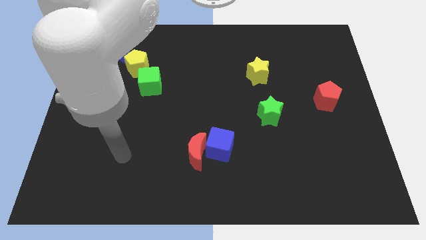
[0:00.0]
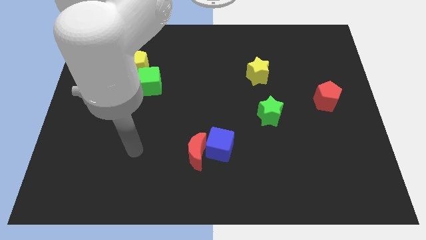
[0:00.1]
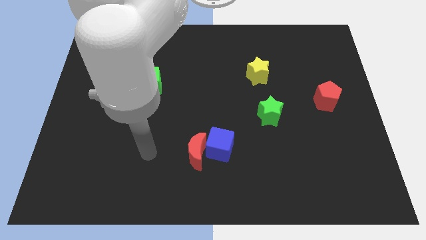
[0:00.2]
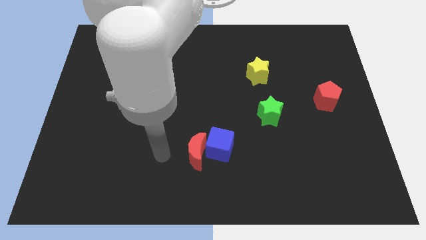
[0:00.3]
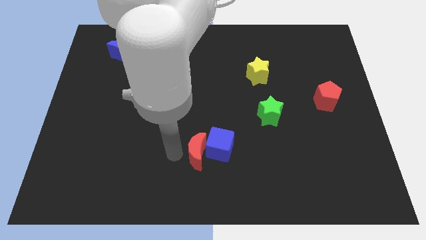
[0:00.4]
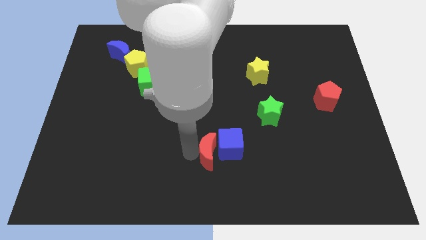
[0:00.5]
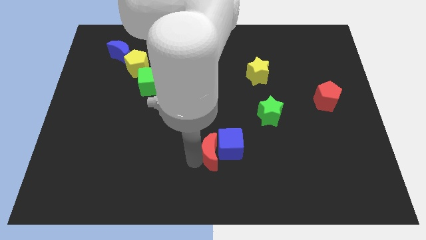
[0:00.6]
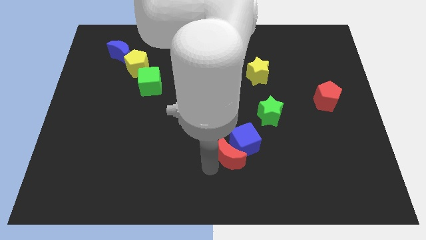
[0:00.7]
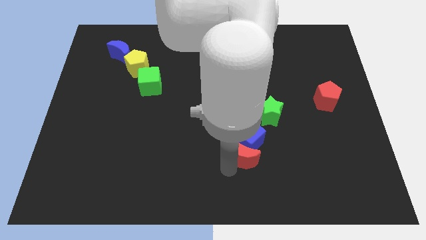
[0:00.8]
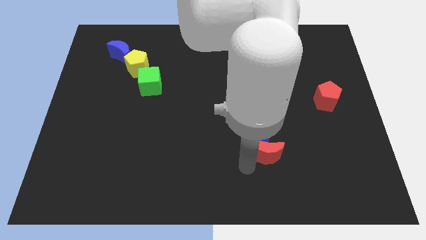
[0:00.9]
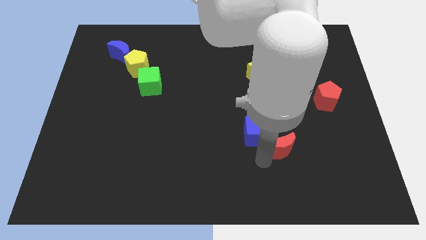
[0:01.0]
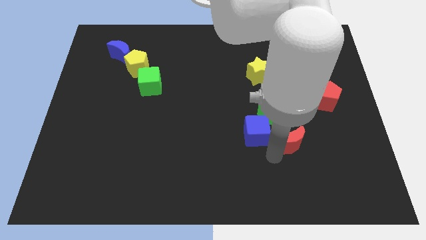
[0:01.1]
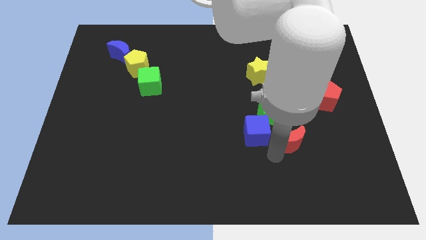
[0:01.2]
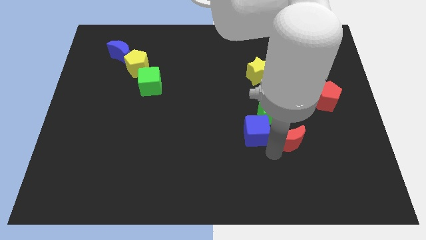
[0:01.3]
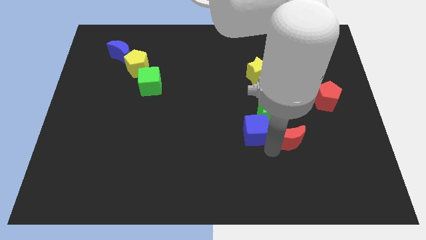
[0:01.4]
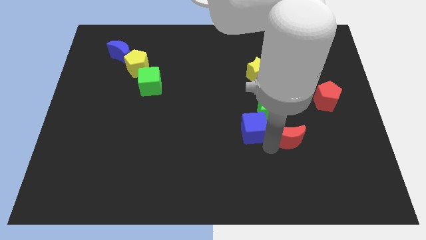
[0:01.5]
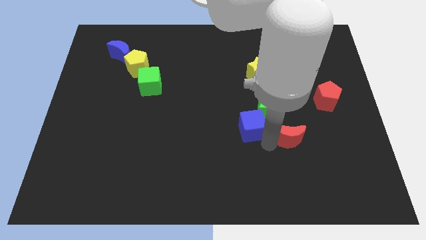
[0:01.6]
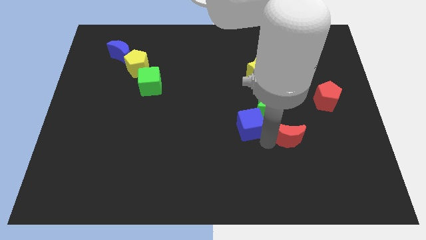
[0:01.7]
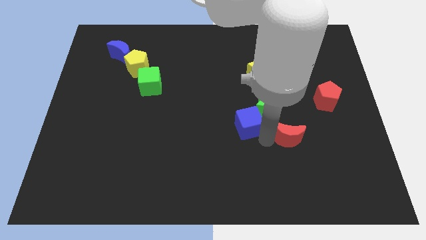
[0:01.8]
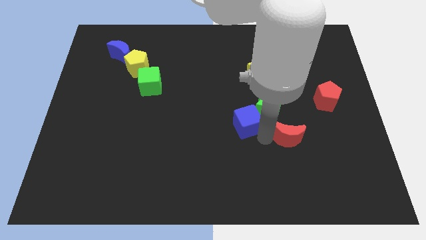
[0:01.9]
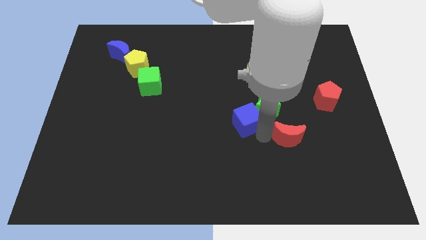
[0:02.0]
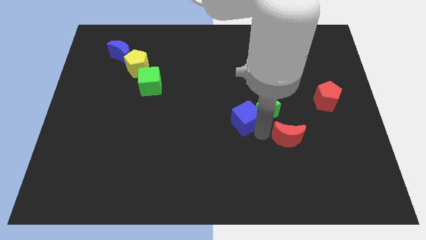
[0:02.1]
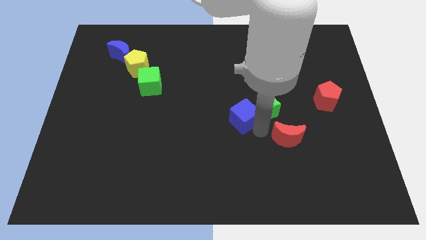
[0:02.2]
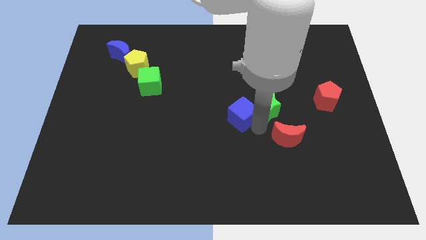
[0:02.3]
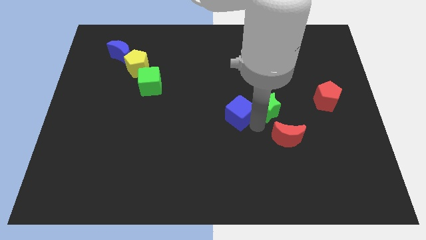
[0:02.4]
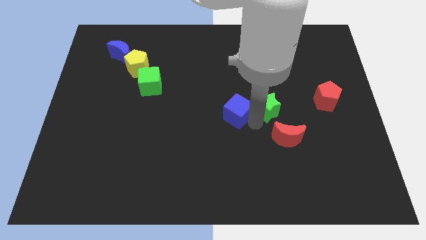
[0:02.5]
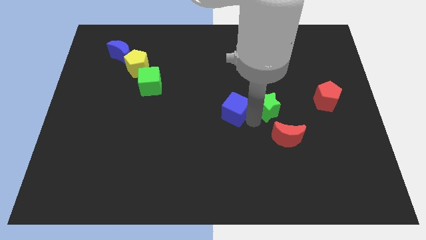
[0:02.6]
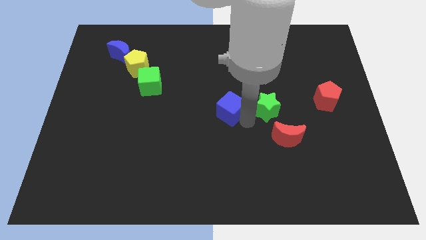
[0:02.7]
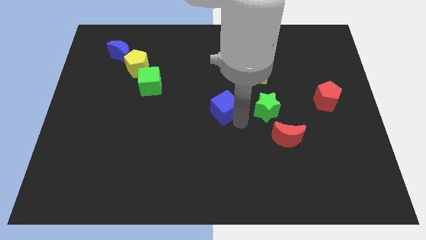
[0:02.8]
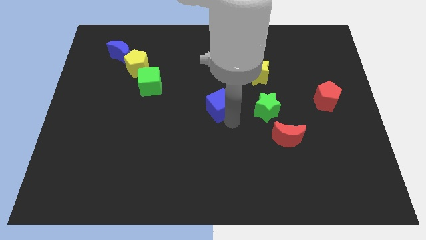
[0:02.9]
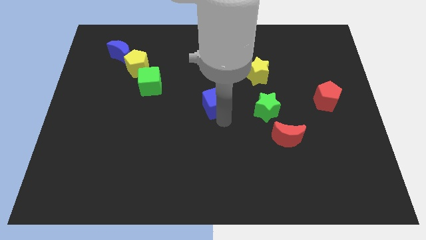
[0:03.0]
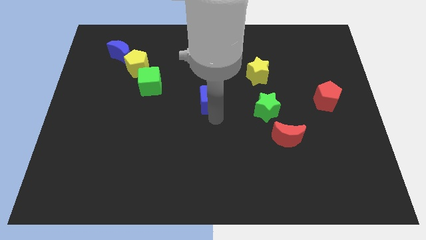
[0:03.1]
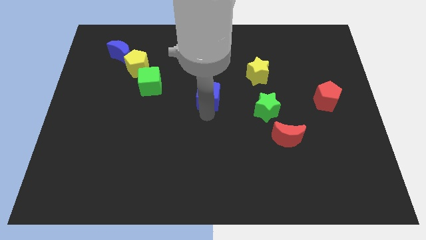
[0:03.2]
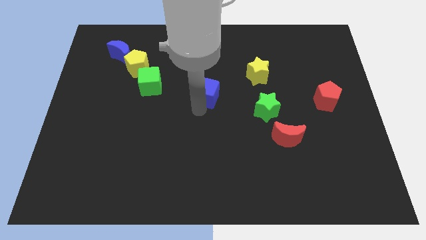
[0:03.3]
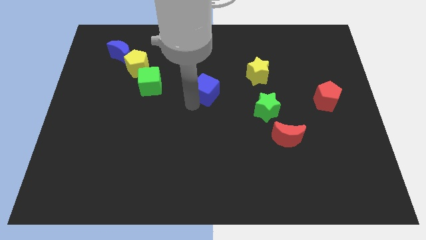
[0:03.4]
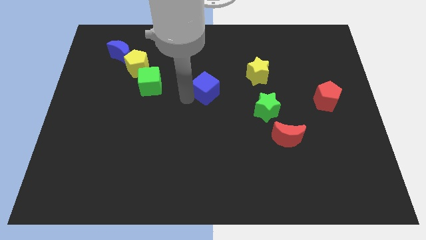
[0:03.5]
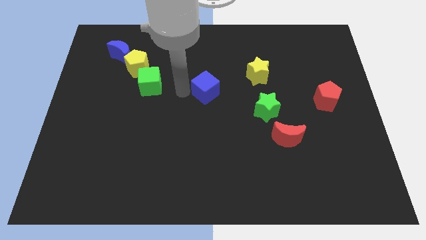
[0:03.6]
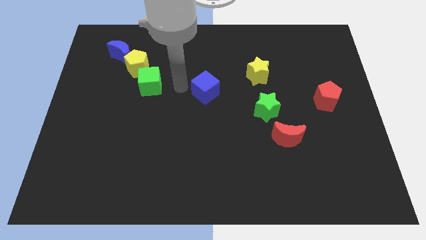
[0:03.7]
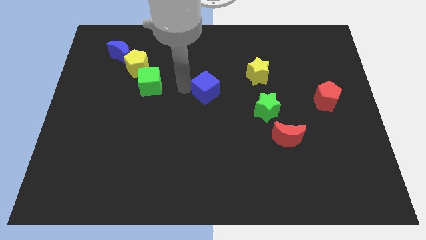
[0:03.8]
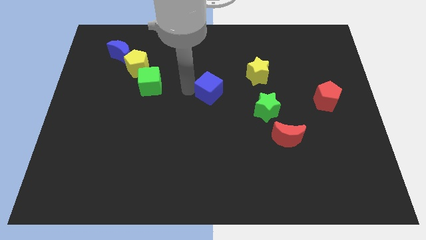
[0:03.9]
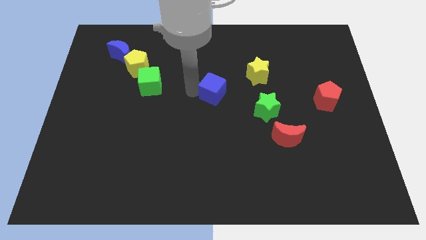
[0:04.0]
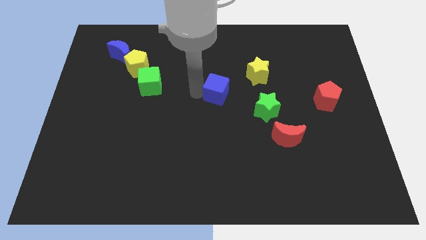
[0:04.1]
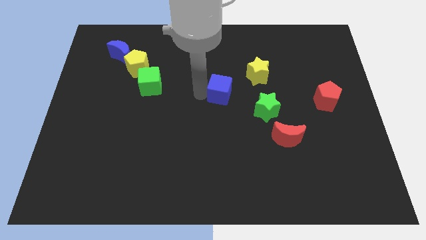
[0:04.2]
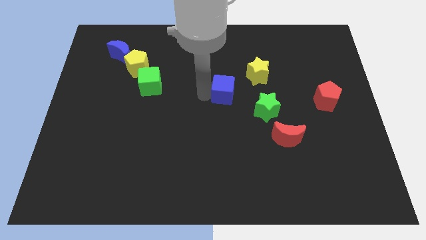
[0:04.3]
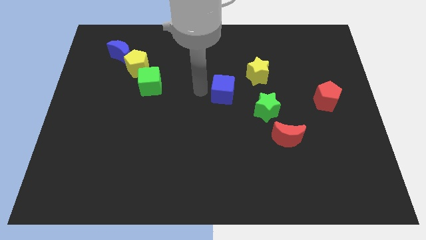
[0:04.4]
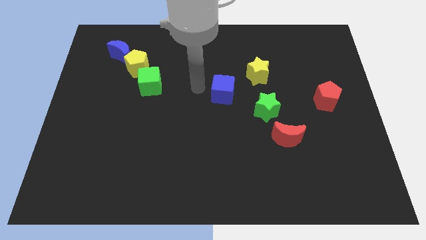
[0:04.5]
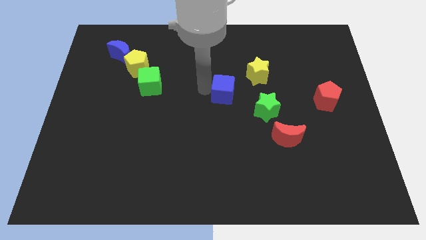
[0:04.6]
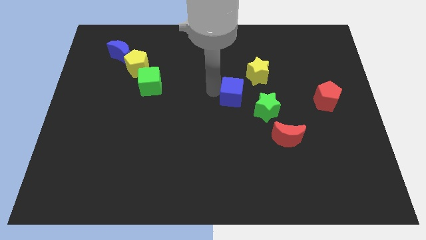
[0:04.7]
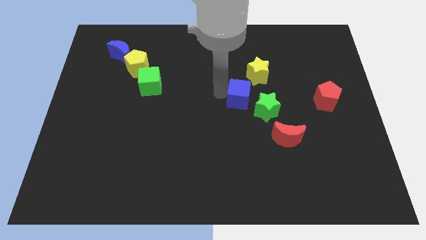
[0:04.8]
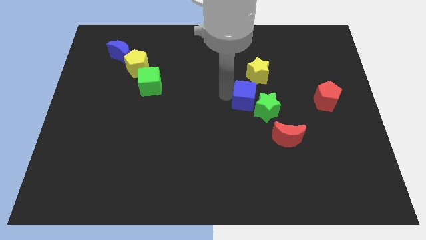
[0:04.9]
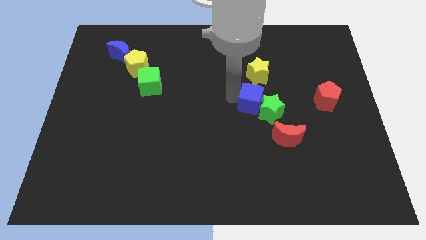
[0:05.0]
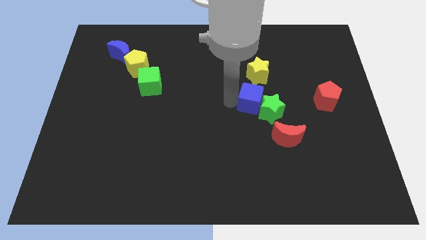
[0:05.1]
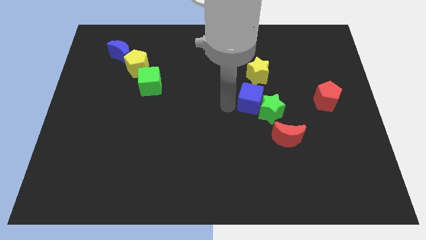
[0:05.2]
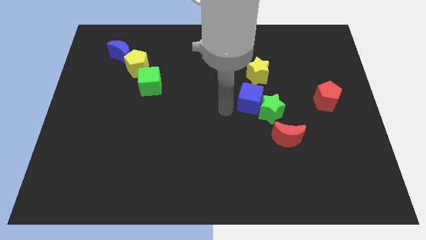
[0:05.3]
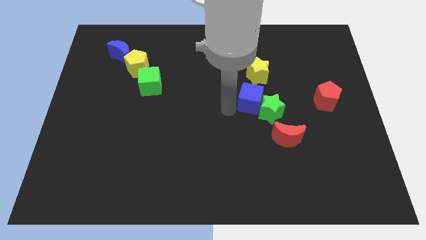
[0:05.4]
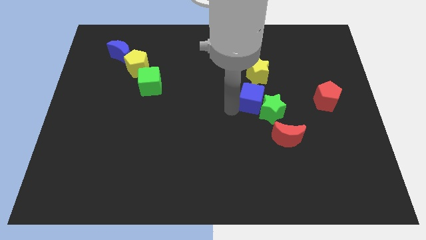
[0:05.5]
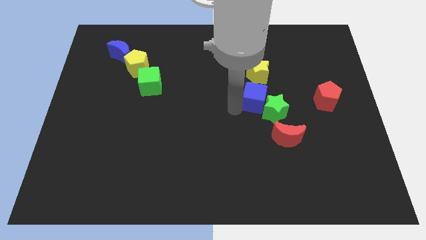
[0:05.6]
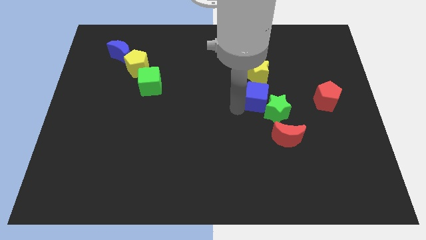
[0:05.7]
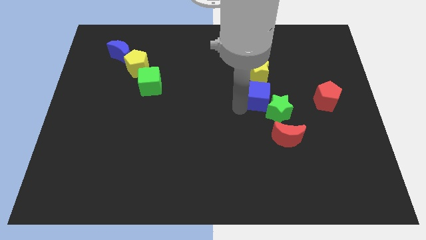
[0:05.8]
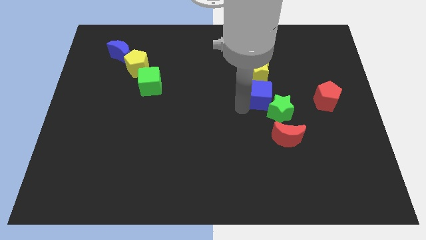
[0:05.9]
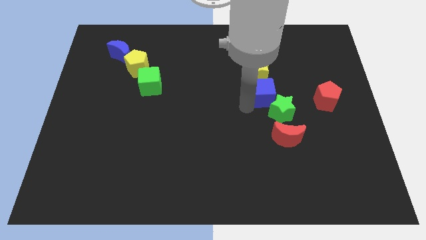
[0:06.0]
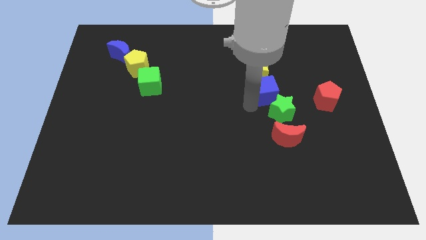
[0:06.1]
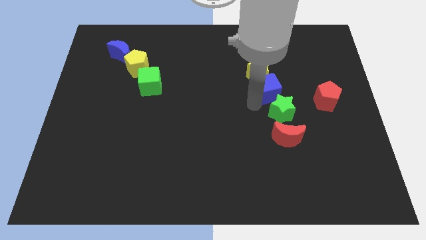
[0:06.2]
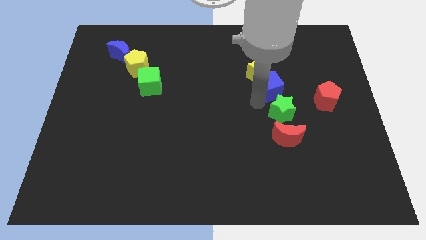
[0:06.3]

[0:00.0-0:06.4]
move the blue cube upwards and then to the right

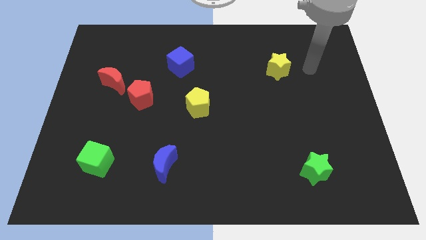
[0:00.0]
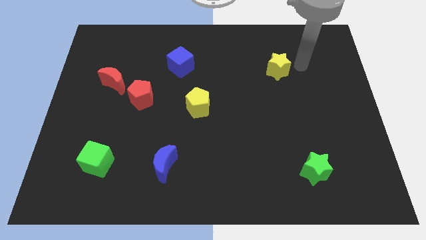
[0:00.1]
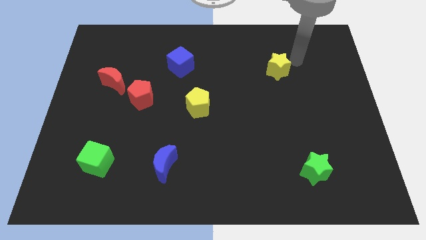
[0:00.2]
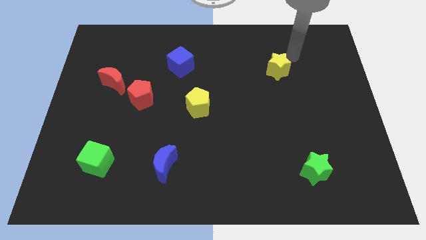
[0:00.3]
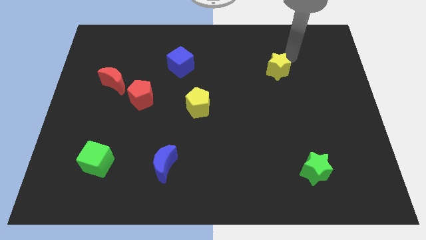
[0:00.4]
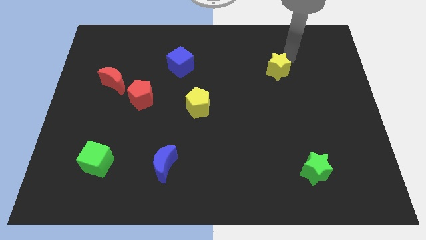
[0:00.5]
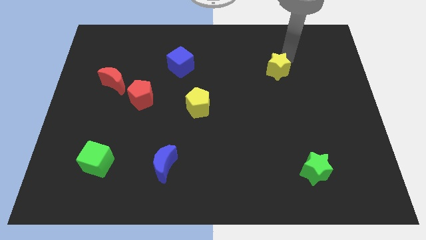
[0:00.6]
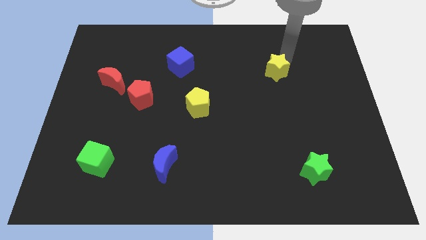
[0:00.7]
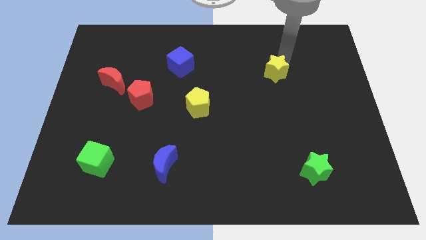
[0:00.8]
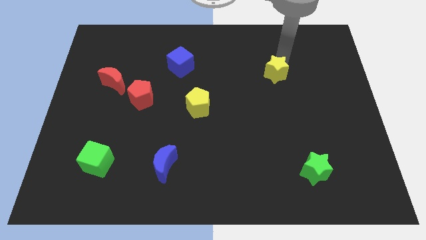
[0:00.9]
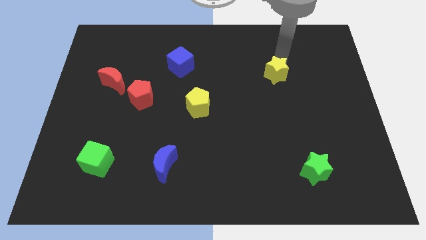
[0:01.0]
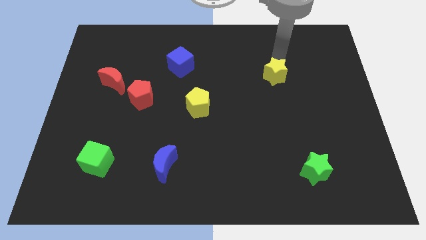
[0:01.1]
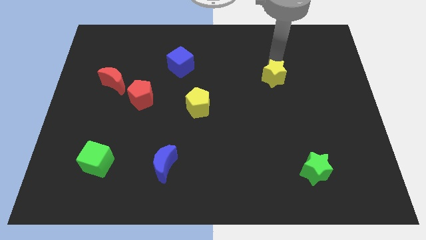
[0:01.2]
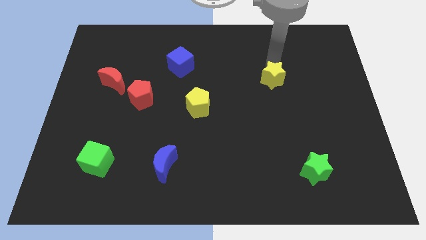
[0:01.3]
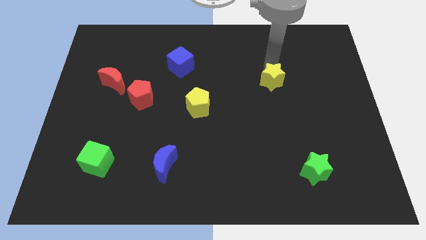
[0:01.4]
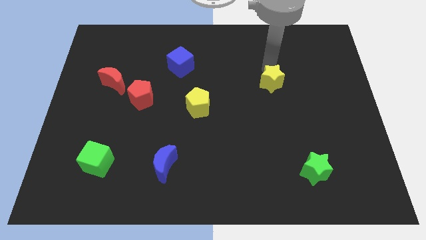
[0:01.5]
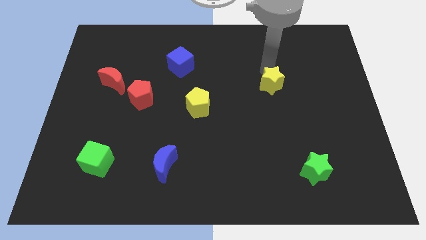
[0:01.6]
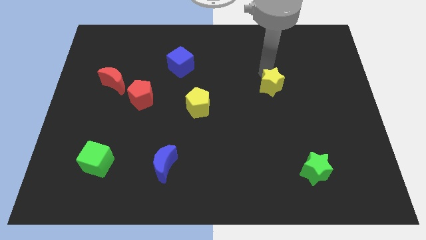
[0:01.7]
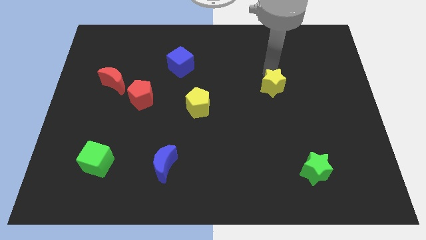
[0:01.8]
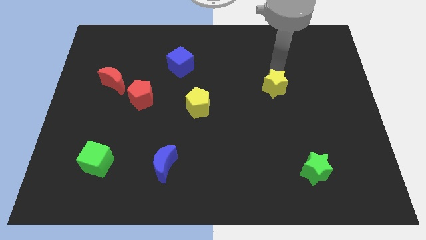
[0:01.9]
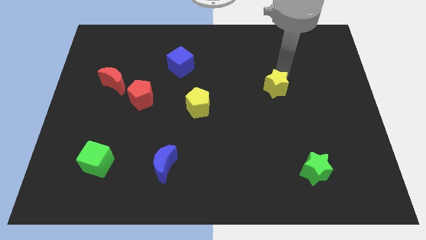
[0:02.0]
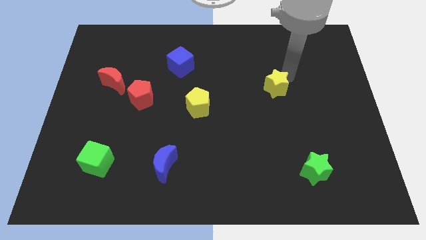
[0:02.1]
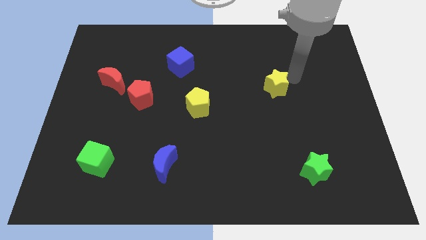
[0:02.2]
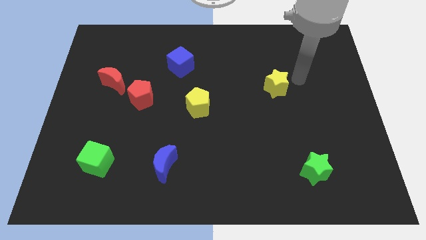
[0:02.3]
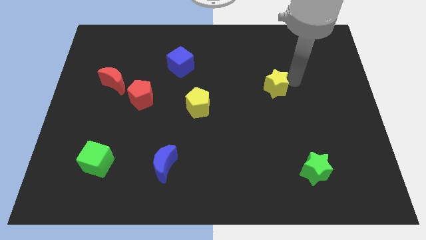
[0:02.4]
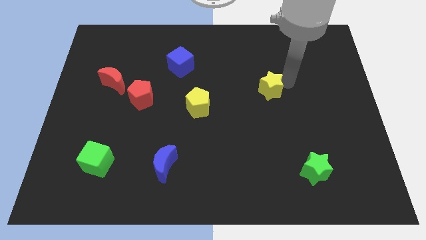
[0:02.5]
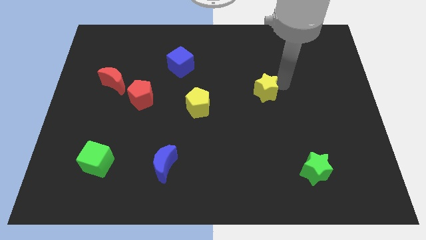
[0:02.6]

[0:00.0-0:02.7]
slightly slide the yellow star downwards and to the left
